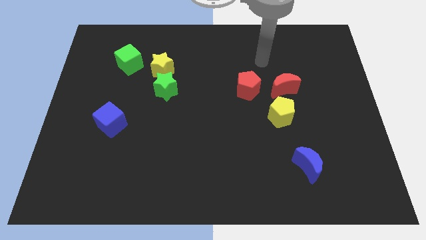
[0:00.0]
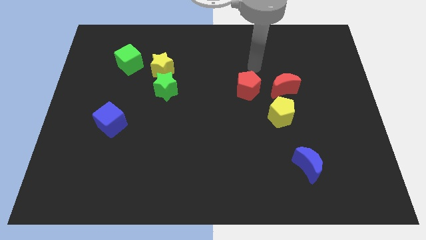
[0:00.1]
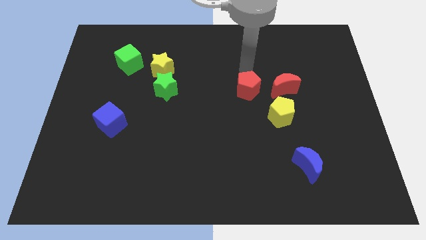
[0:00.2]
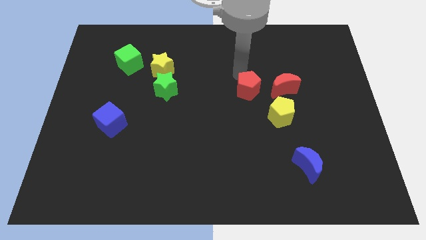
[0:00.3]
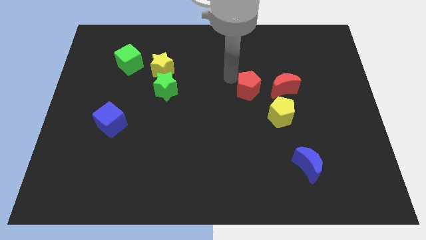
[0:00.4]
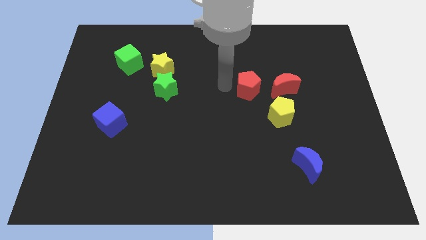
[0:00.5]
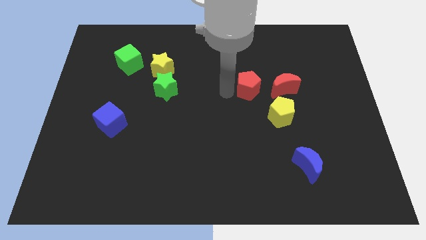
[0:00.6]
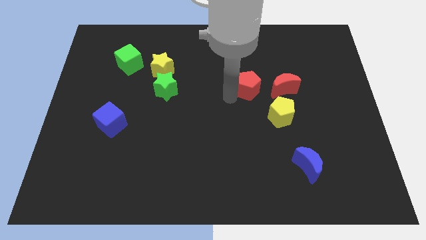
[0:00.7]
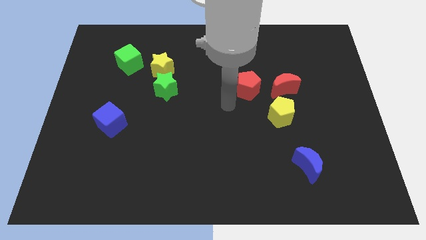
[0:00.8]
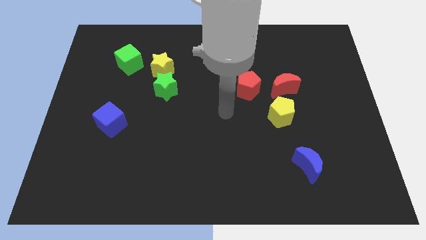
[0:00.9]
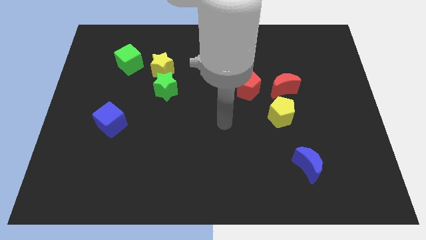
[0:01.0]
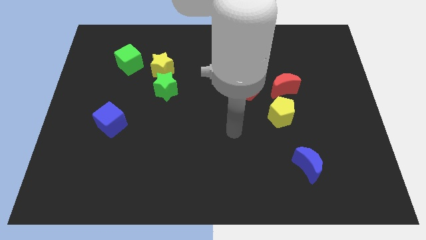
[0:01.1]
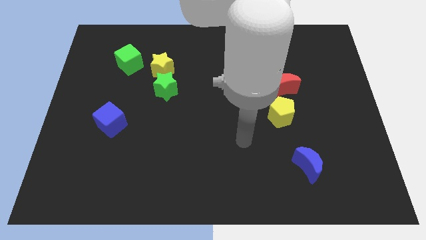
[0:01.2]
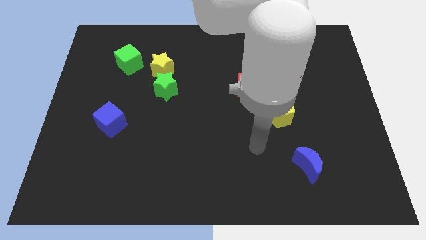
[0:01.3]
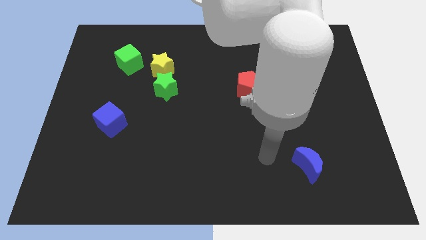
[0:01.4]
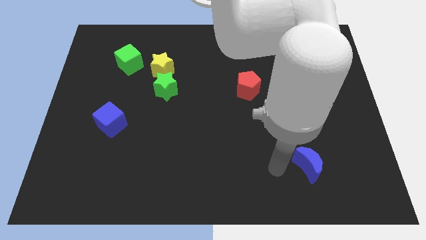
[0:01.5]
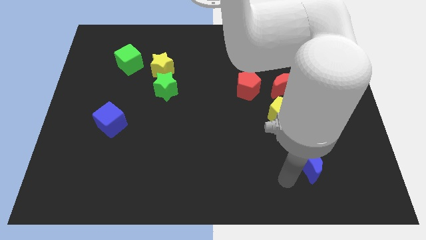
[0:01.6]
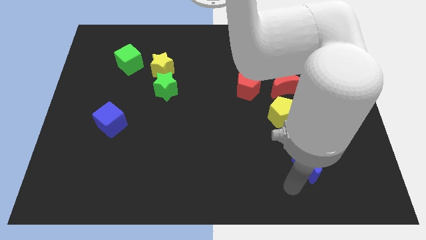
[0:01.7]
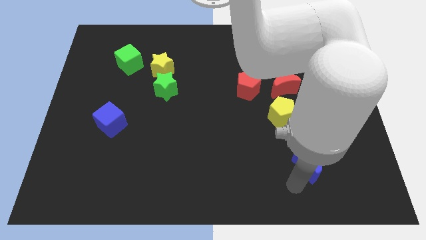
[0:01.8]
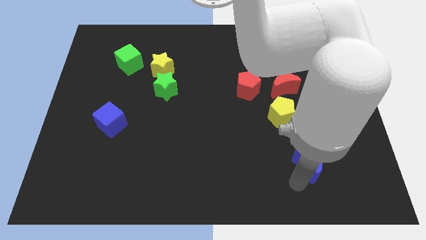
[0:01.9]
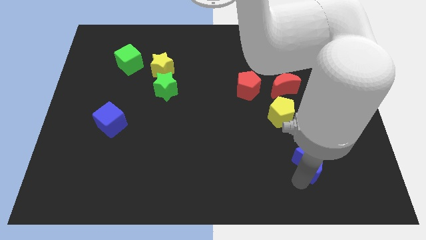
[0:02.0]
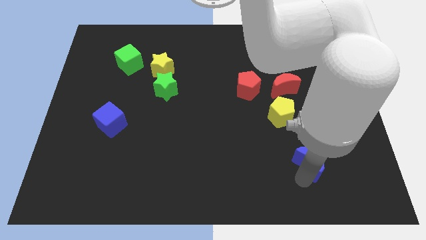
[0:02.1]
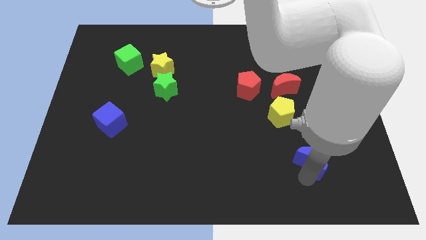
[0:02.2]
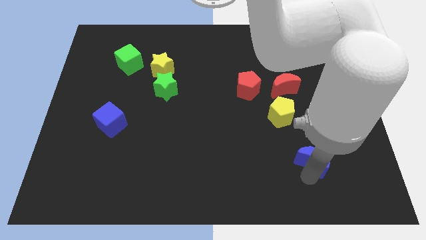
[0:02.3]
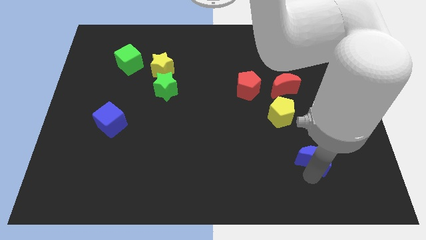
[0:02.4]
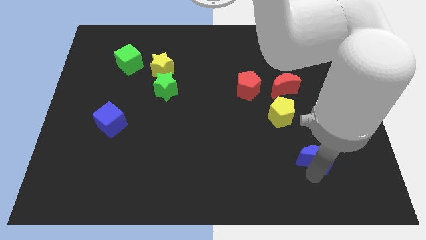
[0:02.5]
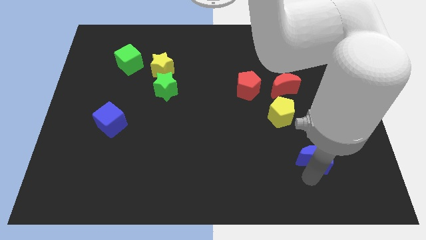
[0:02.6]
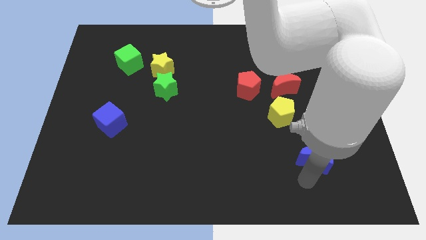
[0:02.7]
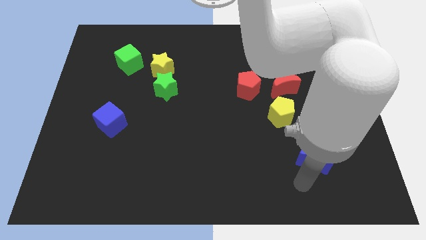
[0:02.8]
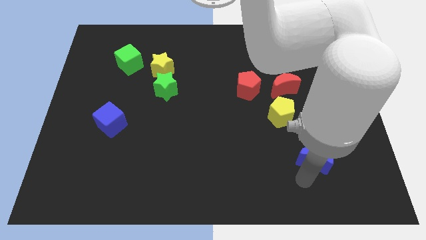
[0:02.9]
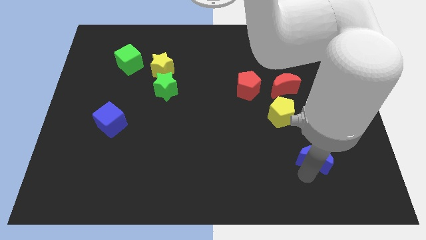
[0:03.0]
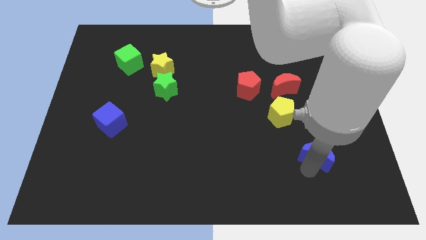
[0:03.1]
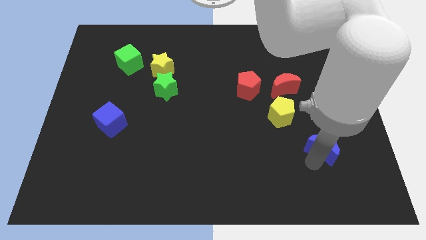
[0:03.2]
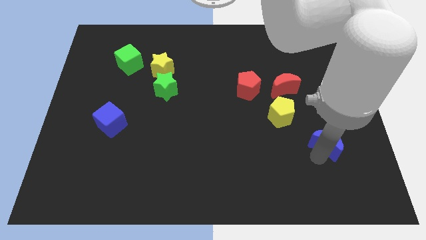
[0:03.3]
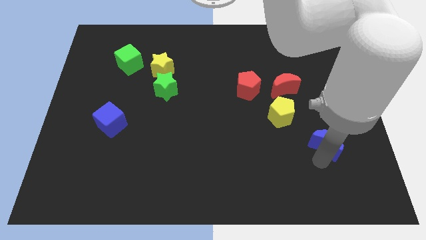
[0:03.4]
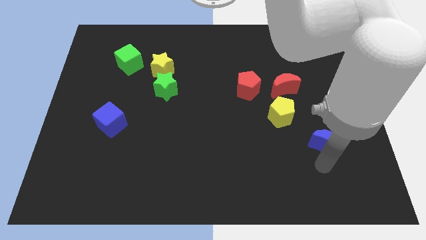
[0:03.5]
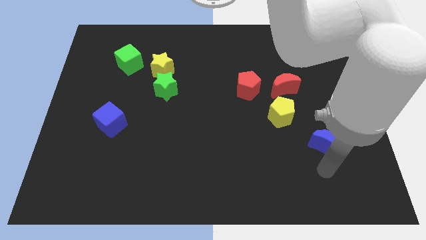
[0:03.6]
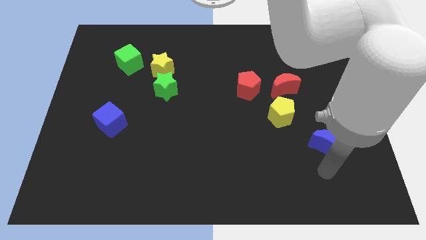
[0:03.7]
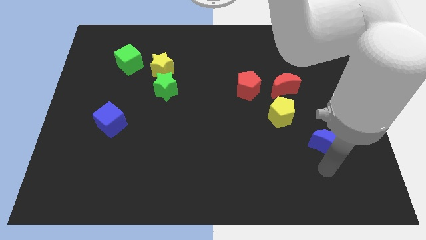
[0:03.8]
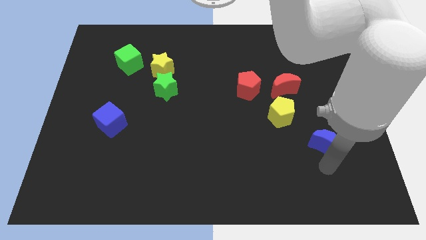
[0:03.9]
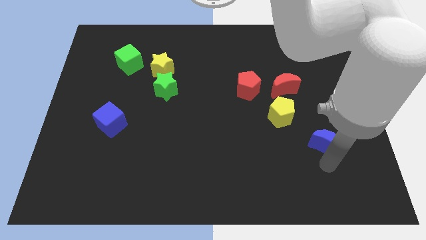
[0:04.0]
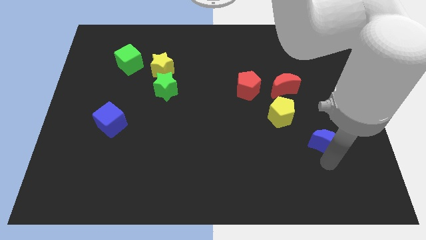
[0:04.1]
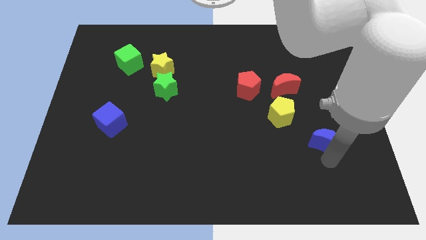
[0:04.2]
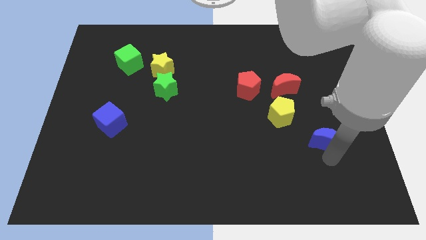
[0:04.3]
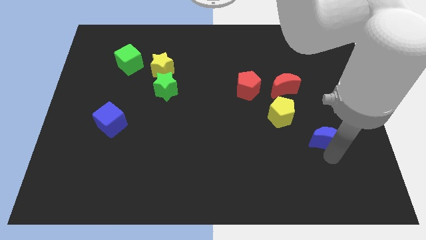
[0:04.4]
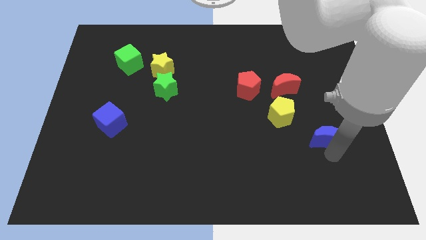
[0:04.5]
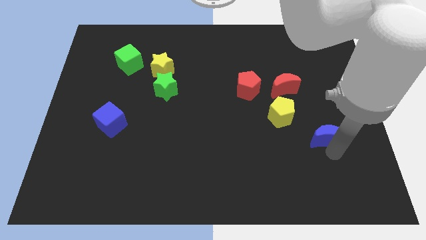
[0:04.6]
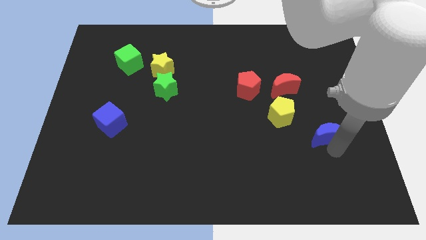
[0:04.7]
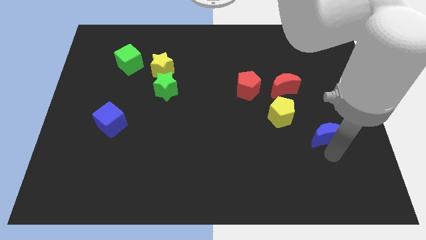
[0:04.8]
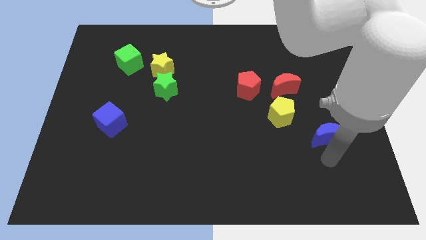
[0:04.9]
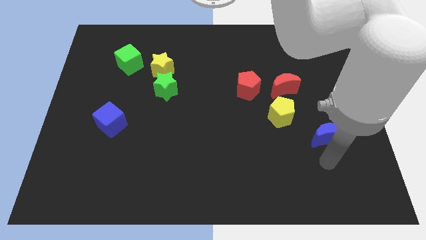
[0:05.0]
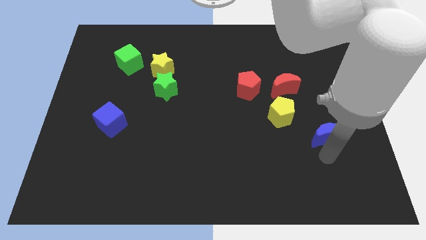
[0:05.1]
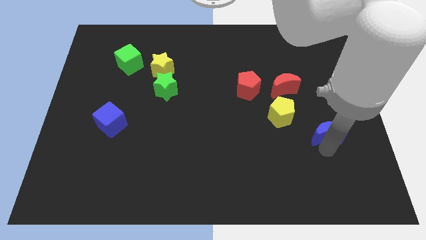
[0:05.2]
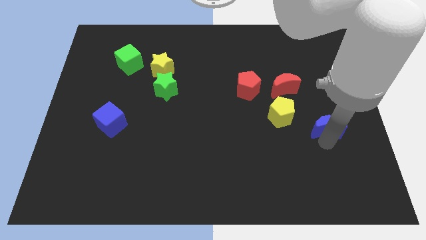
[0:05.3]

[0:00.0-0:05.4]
move the blue moon to the right side of the yellow pentagon

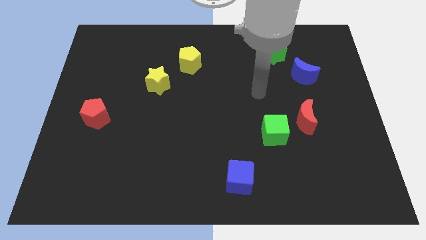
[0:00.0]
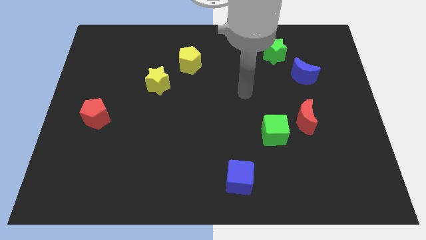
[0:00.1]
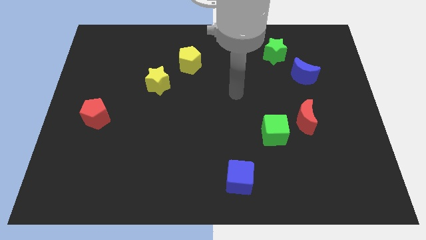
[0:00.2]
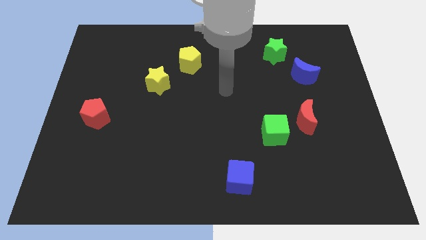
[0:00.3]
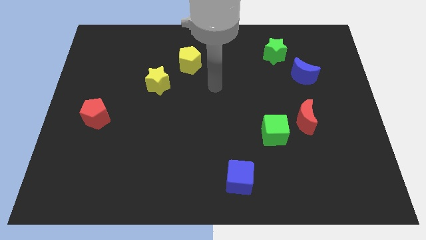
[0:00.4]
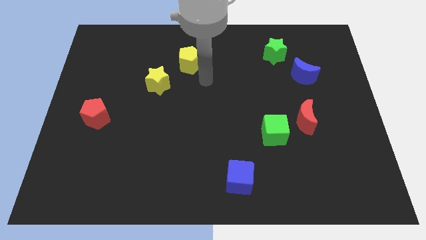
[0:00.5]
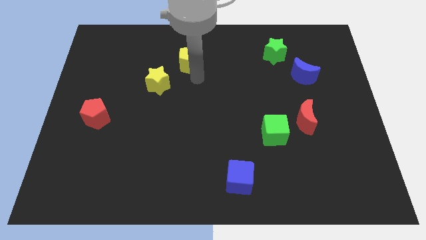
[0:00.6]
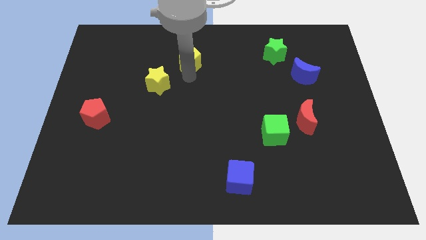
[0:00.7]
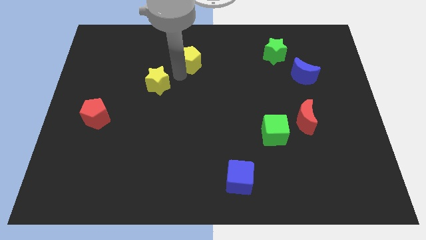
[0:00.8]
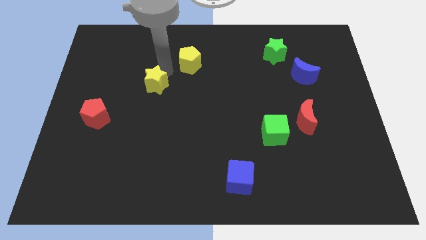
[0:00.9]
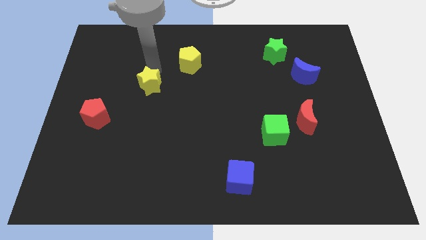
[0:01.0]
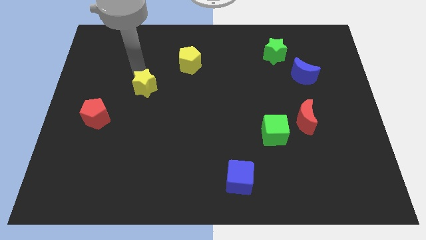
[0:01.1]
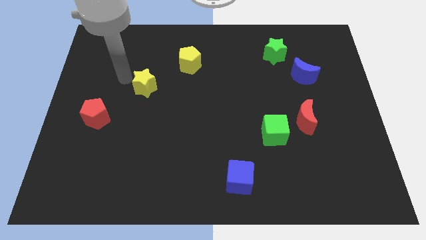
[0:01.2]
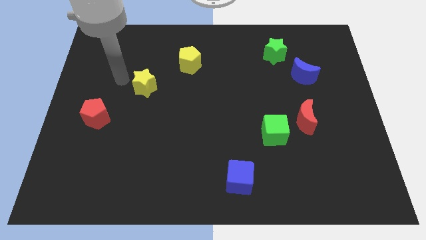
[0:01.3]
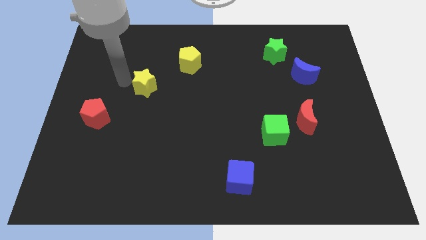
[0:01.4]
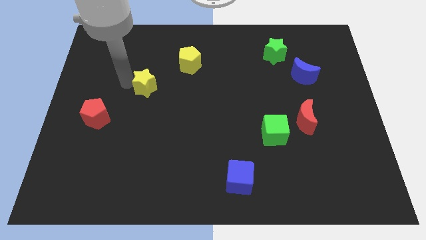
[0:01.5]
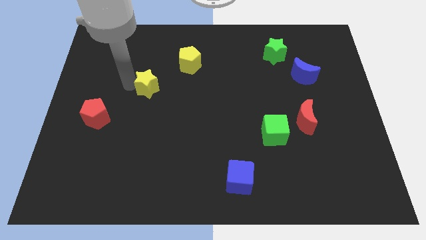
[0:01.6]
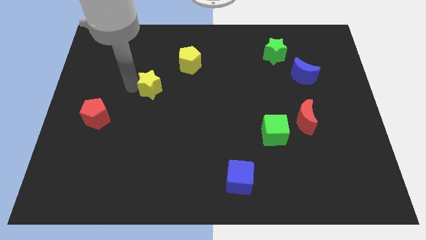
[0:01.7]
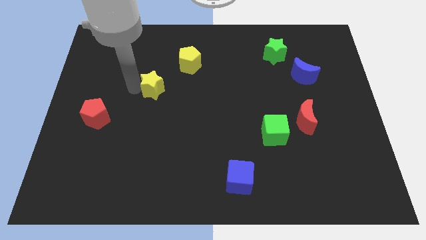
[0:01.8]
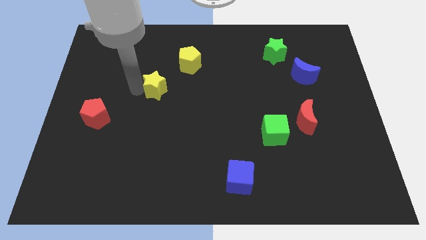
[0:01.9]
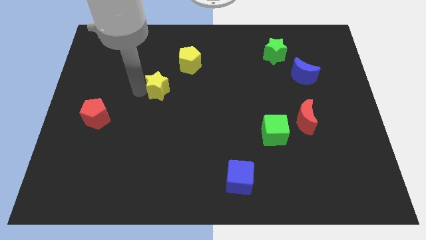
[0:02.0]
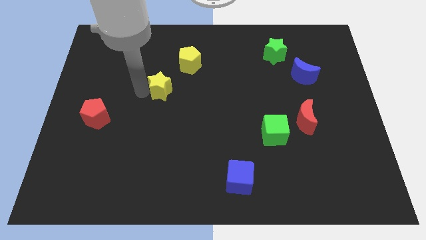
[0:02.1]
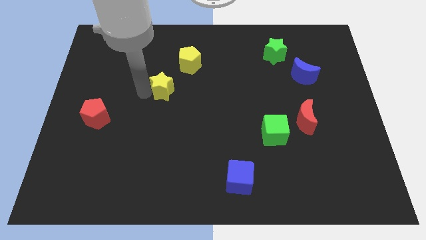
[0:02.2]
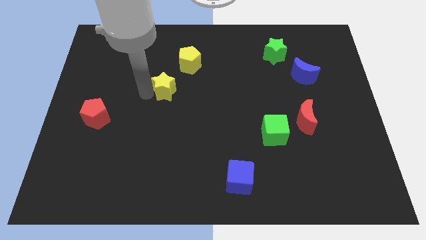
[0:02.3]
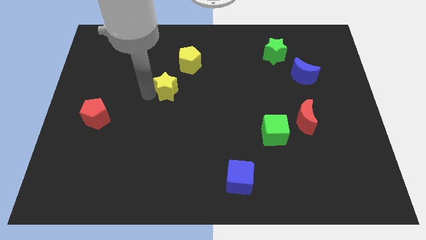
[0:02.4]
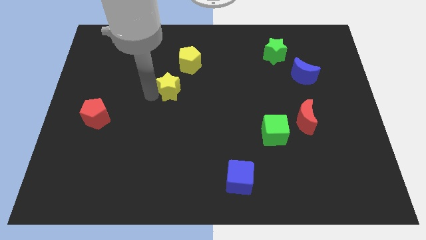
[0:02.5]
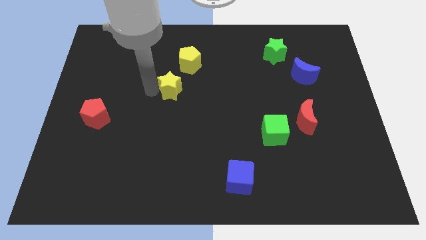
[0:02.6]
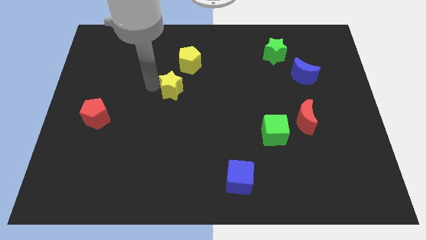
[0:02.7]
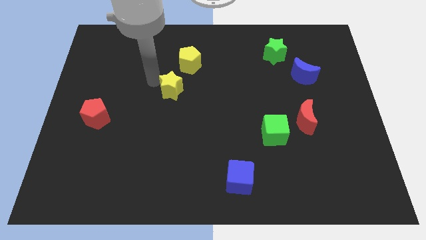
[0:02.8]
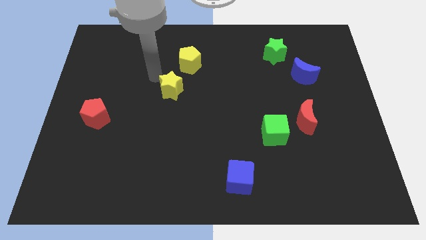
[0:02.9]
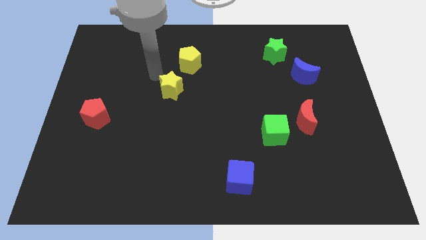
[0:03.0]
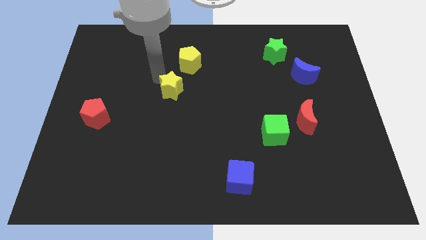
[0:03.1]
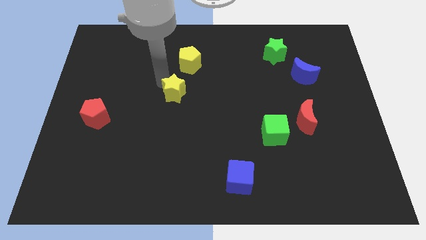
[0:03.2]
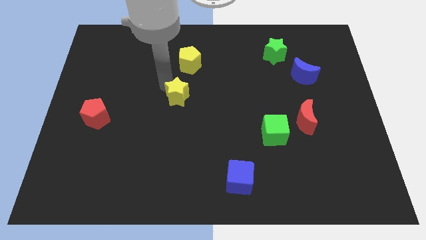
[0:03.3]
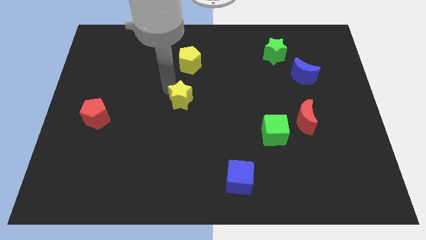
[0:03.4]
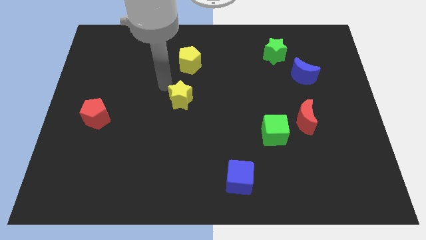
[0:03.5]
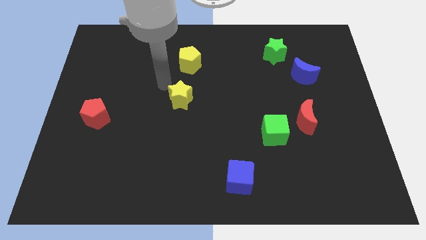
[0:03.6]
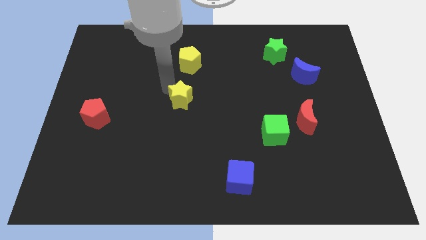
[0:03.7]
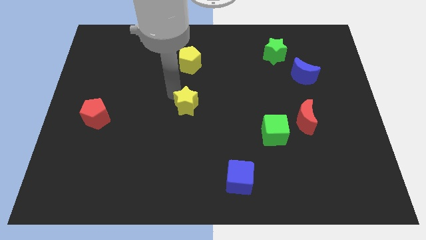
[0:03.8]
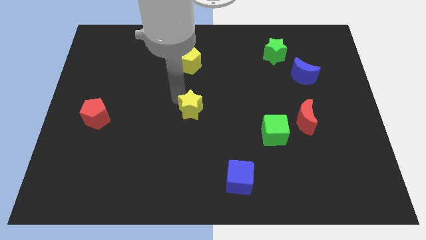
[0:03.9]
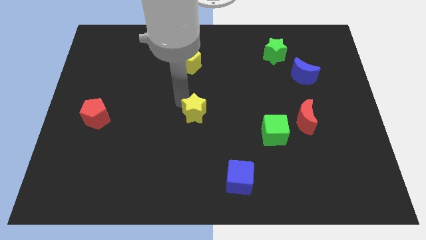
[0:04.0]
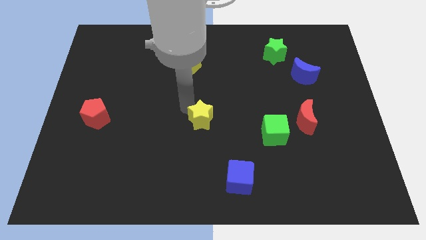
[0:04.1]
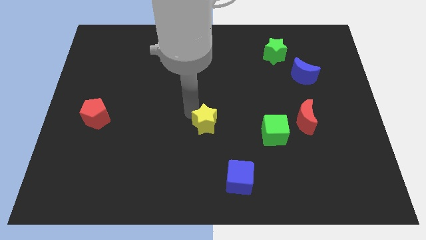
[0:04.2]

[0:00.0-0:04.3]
slide the yellow star left of the green cube
